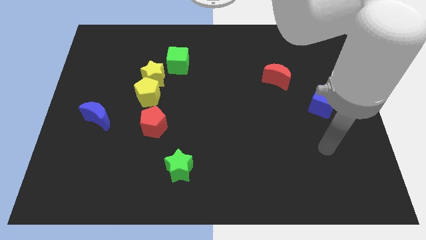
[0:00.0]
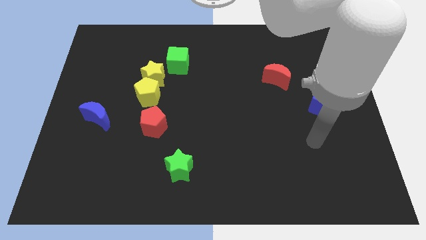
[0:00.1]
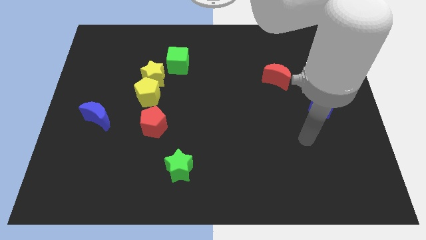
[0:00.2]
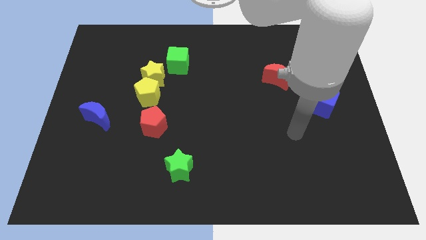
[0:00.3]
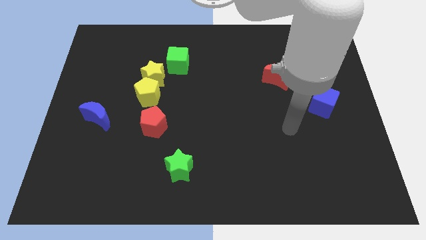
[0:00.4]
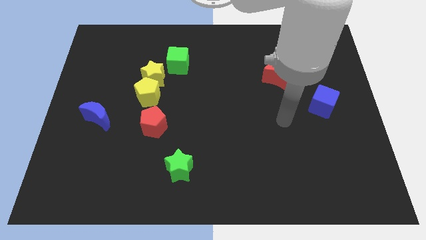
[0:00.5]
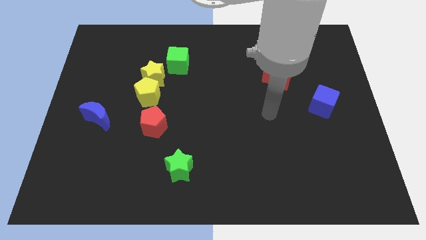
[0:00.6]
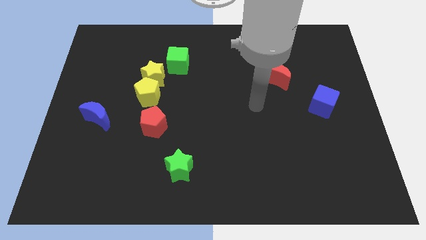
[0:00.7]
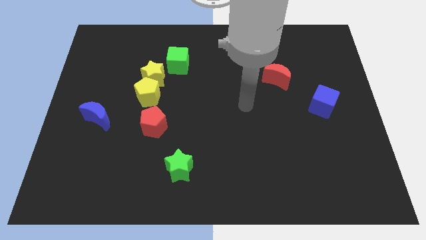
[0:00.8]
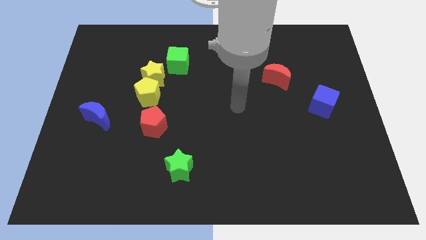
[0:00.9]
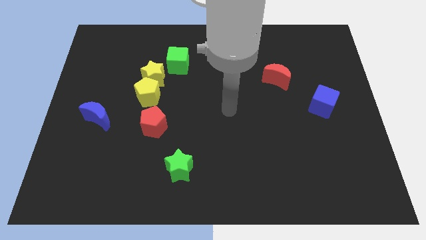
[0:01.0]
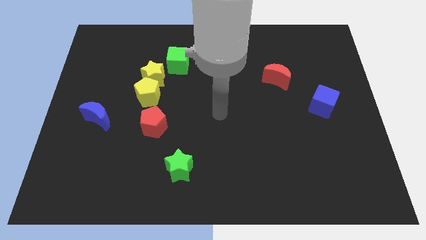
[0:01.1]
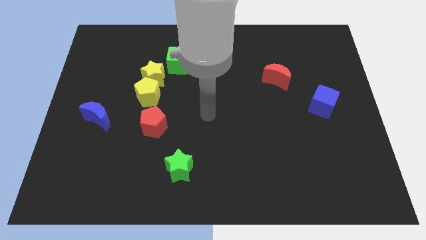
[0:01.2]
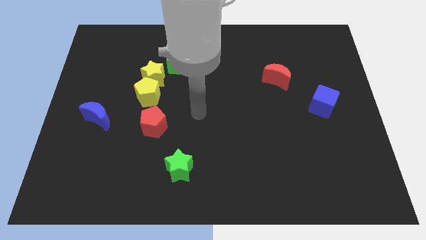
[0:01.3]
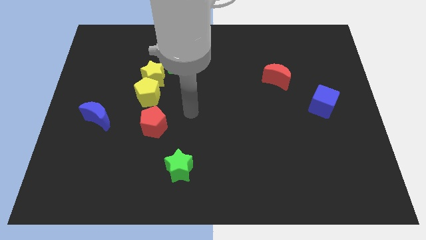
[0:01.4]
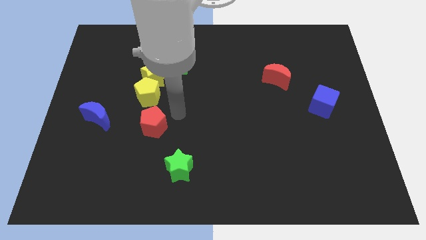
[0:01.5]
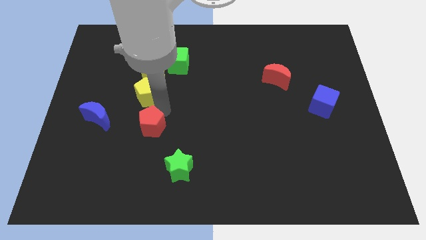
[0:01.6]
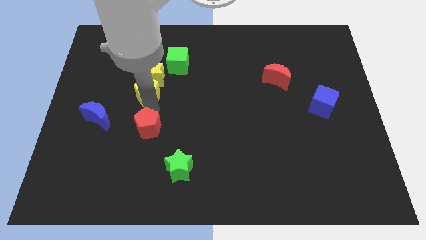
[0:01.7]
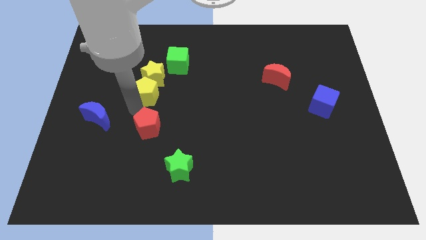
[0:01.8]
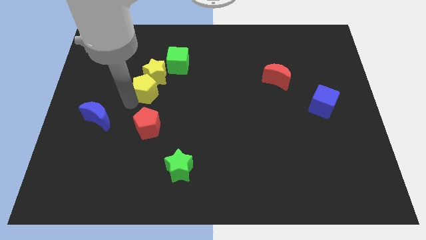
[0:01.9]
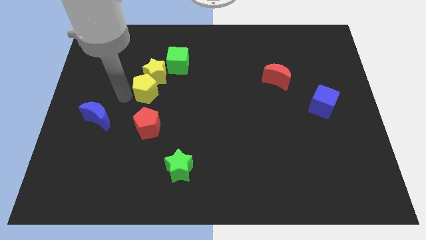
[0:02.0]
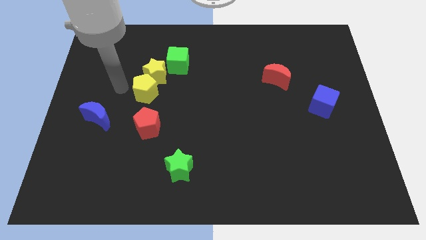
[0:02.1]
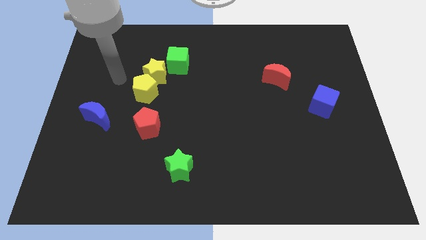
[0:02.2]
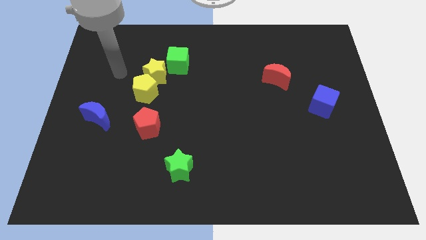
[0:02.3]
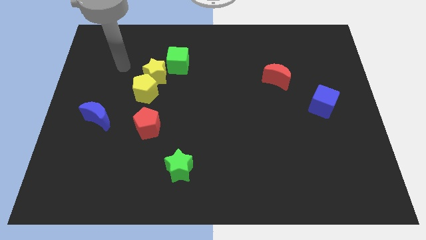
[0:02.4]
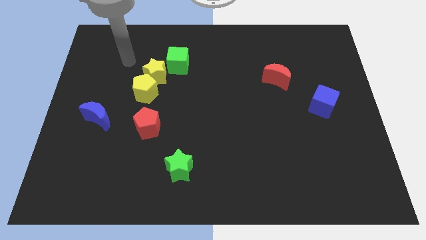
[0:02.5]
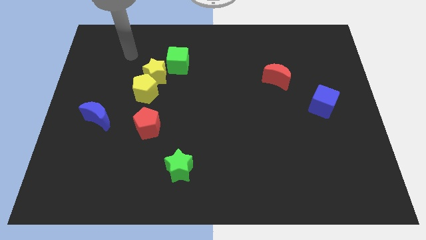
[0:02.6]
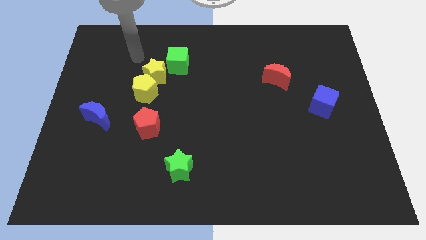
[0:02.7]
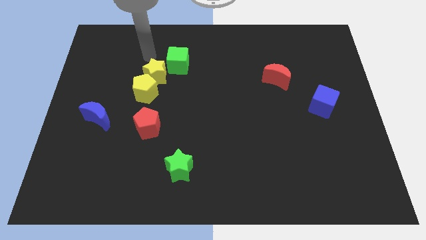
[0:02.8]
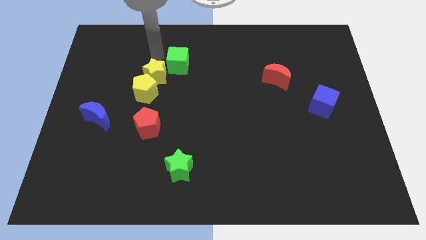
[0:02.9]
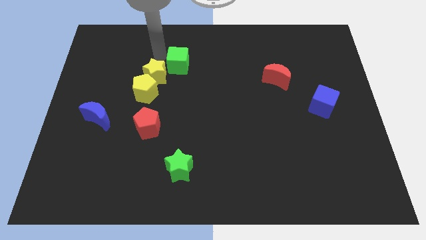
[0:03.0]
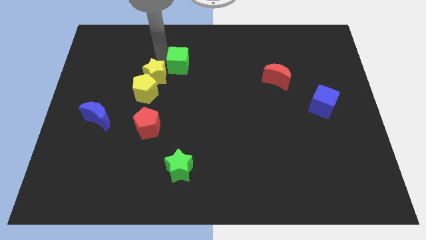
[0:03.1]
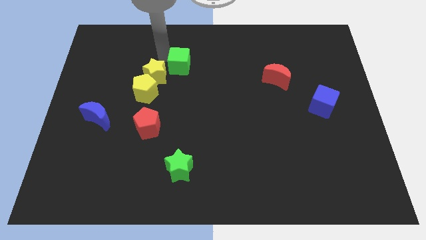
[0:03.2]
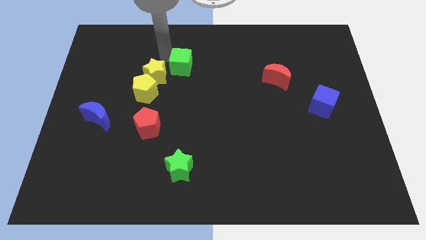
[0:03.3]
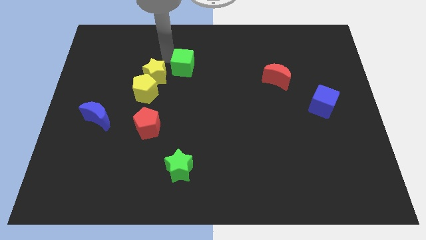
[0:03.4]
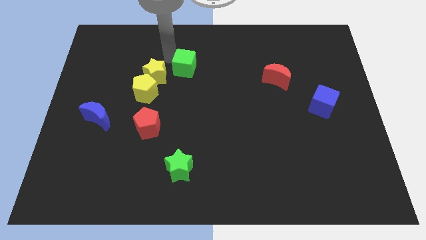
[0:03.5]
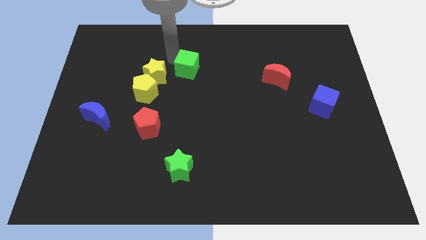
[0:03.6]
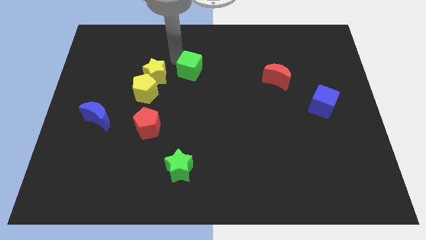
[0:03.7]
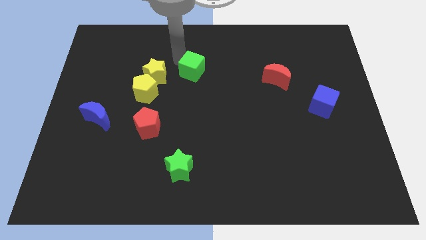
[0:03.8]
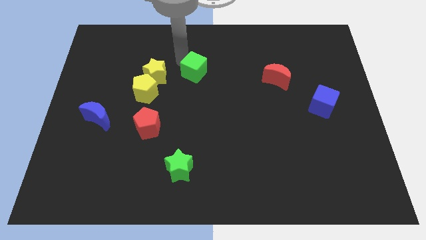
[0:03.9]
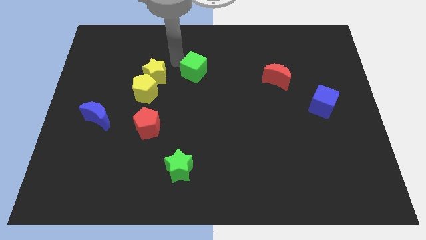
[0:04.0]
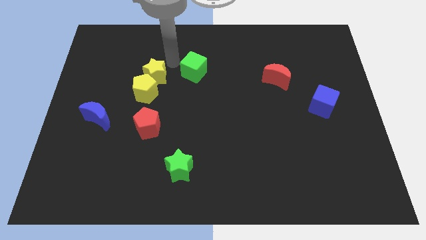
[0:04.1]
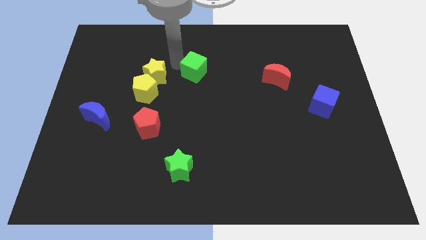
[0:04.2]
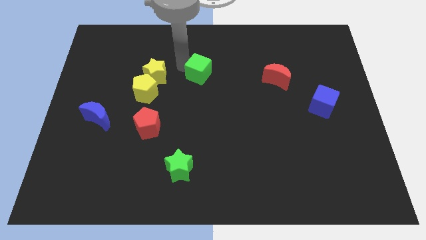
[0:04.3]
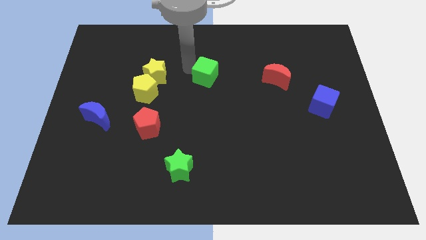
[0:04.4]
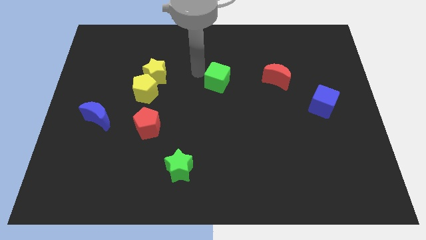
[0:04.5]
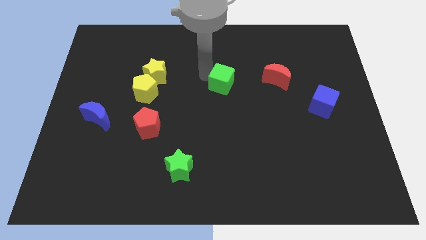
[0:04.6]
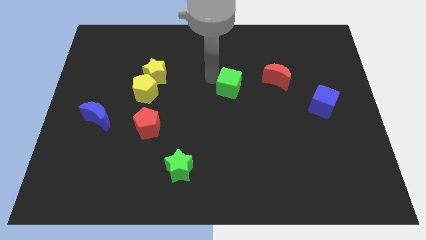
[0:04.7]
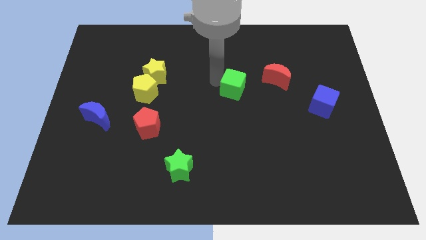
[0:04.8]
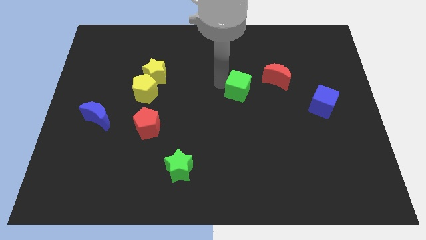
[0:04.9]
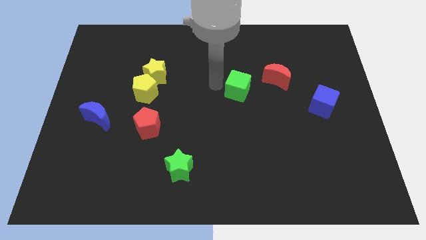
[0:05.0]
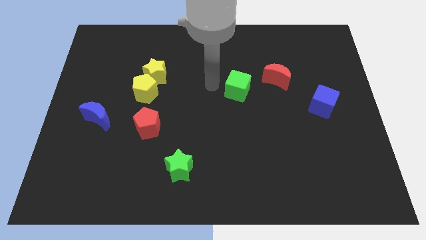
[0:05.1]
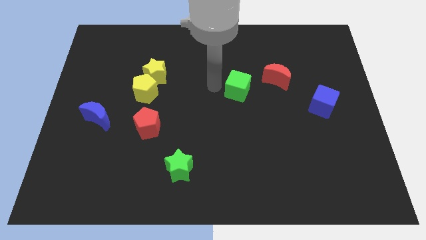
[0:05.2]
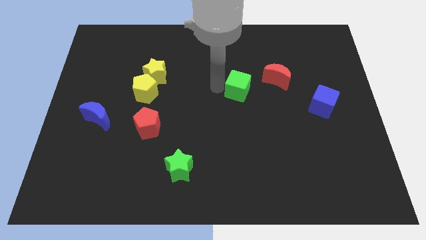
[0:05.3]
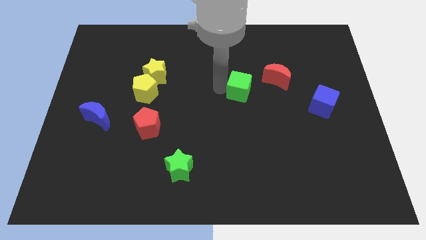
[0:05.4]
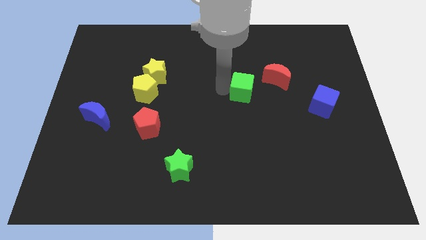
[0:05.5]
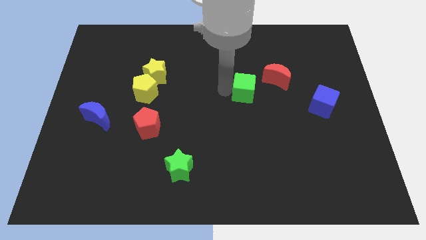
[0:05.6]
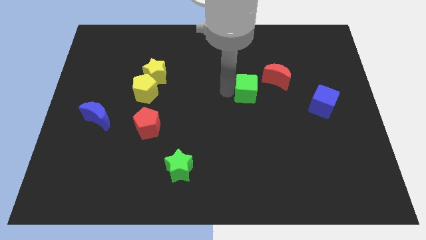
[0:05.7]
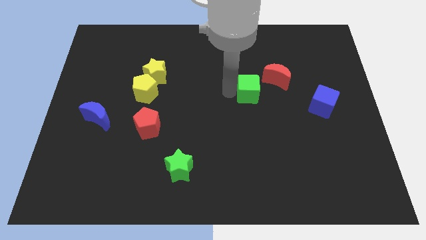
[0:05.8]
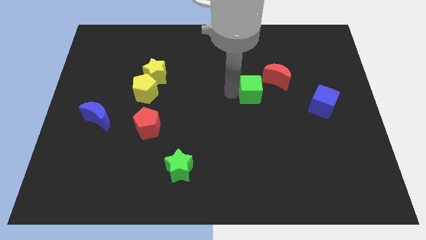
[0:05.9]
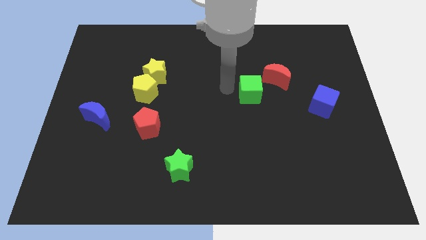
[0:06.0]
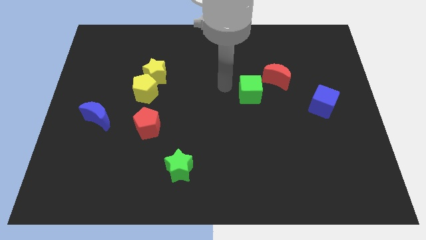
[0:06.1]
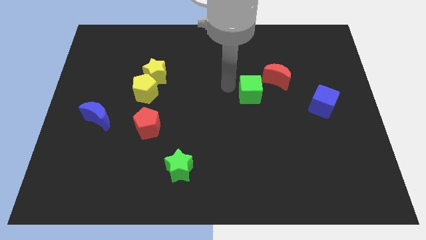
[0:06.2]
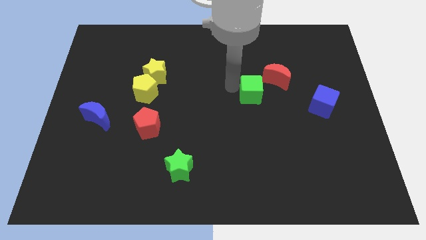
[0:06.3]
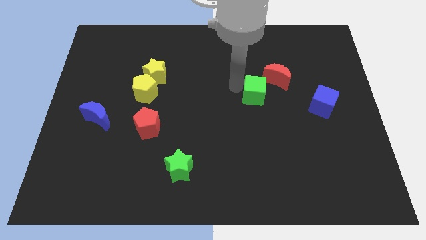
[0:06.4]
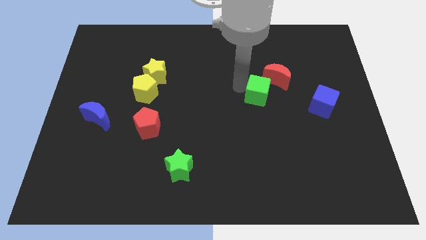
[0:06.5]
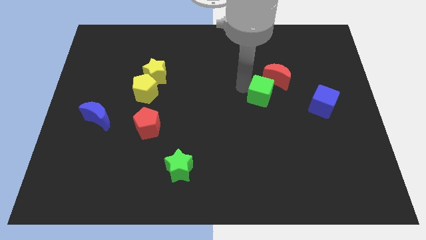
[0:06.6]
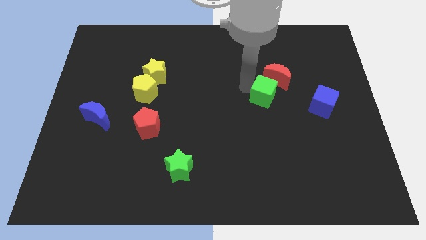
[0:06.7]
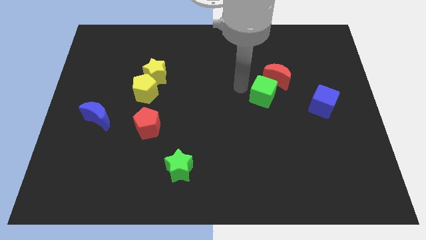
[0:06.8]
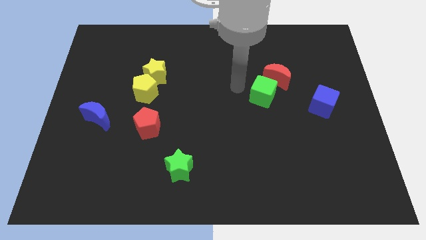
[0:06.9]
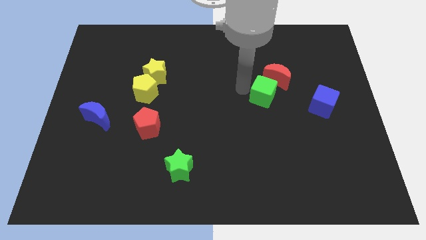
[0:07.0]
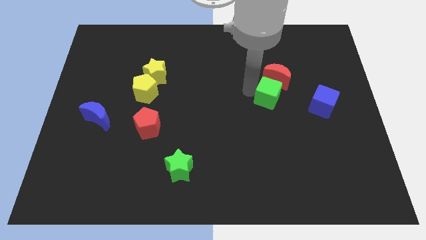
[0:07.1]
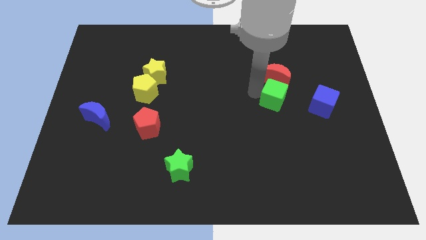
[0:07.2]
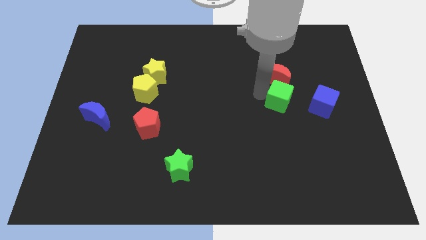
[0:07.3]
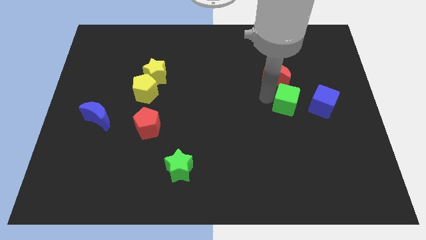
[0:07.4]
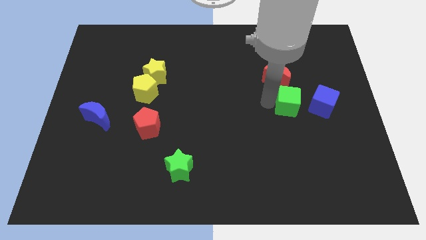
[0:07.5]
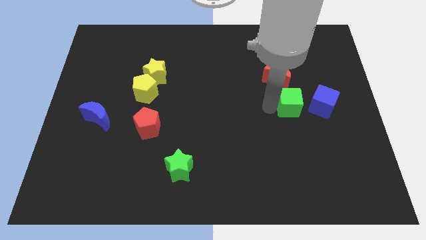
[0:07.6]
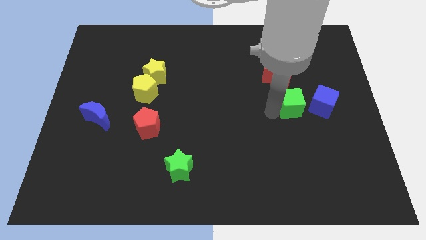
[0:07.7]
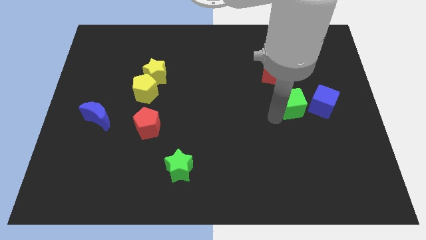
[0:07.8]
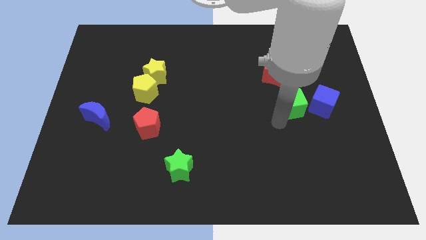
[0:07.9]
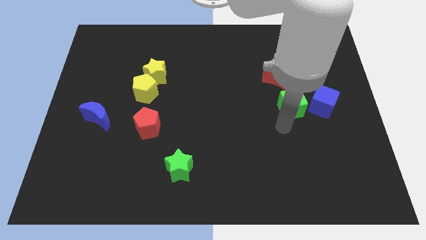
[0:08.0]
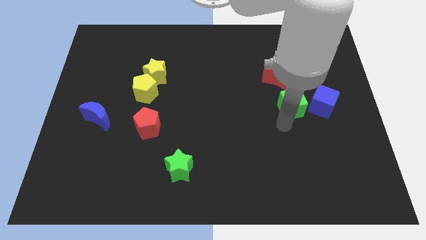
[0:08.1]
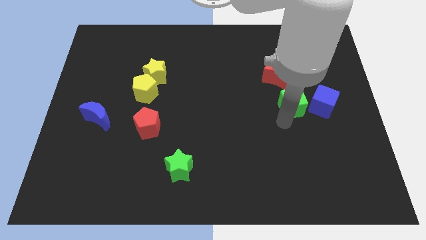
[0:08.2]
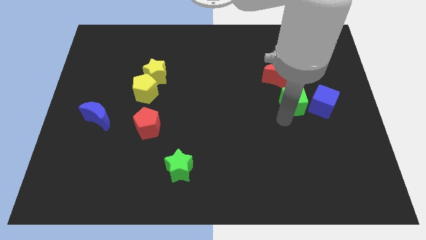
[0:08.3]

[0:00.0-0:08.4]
put the green cube to the top left side of the blue cube
